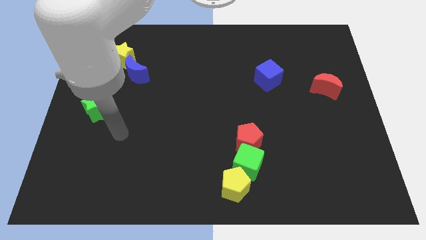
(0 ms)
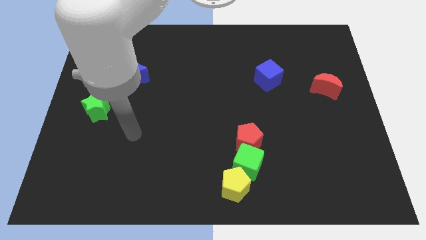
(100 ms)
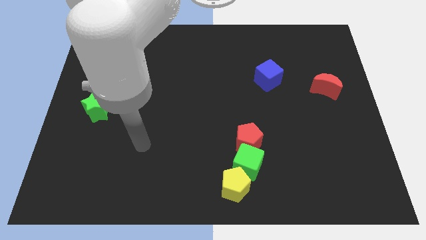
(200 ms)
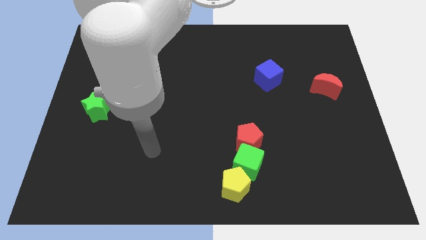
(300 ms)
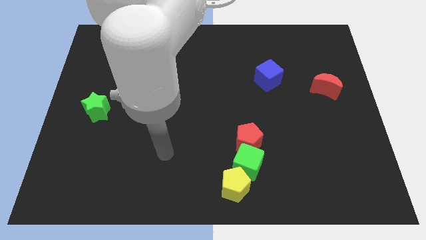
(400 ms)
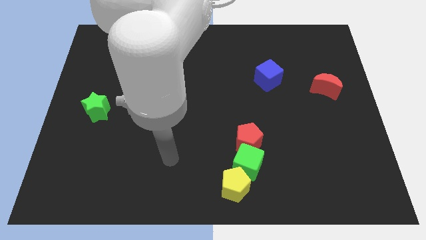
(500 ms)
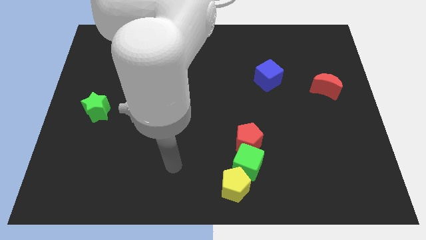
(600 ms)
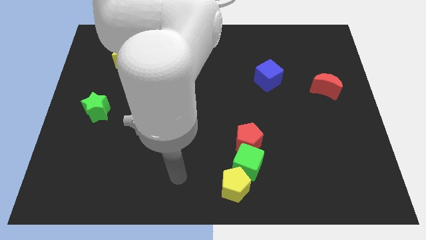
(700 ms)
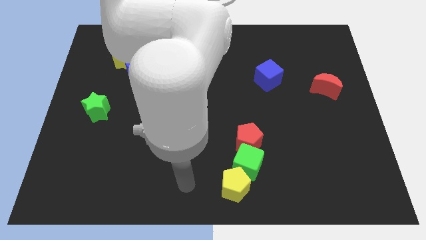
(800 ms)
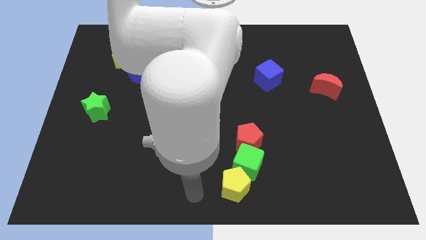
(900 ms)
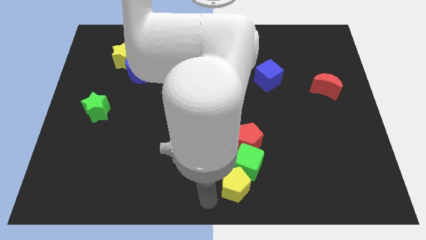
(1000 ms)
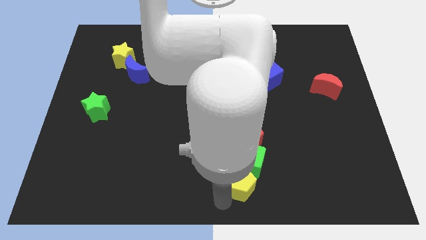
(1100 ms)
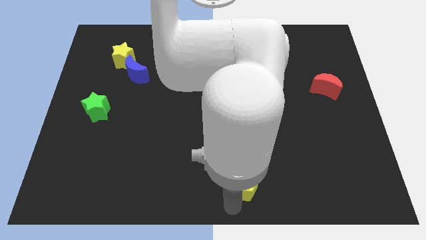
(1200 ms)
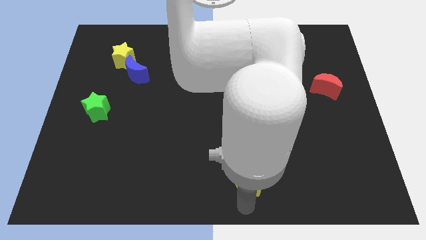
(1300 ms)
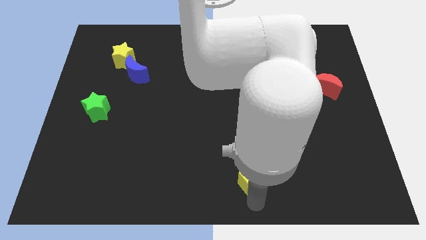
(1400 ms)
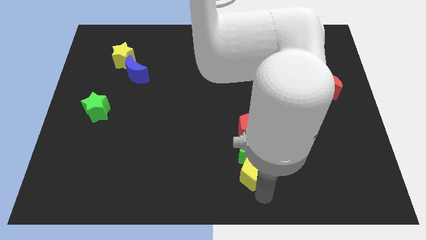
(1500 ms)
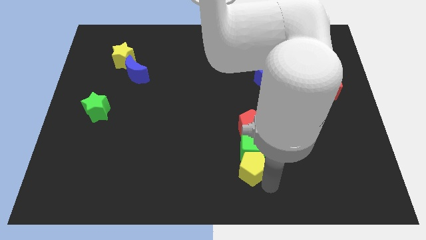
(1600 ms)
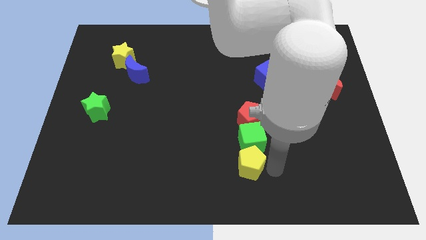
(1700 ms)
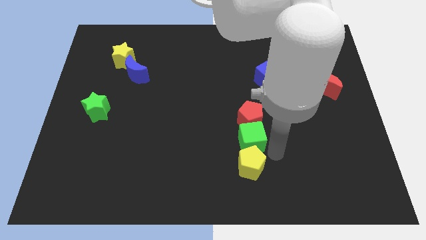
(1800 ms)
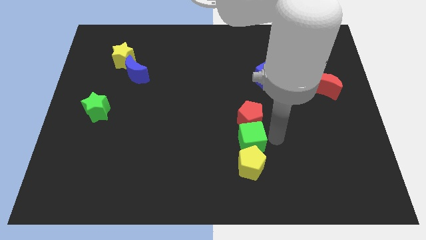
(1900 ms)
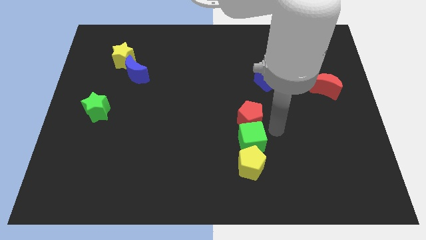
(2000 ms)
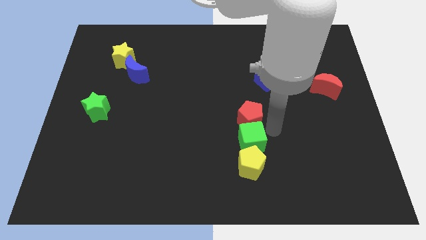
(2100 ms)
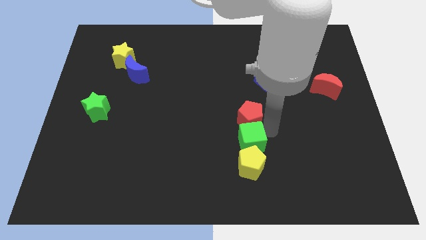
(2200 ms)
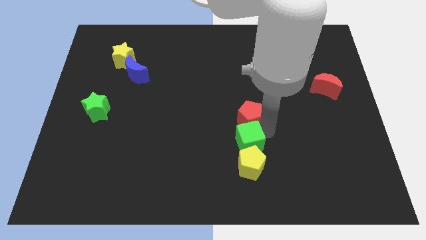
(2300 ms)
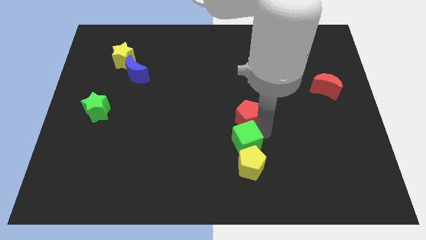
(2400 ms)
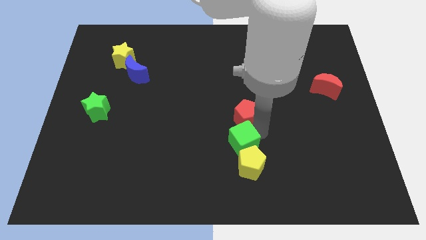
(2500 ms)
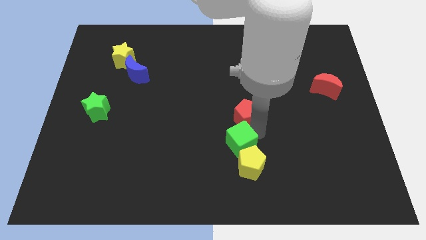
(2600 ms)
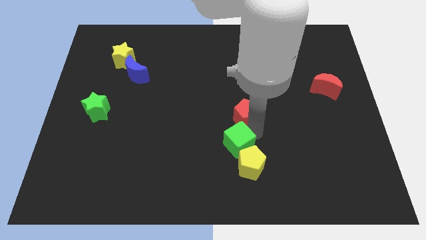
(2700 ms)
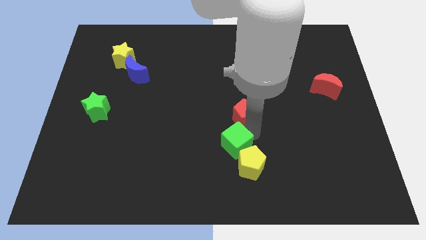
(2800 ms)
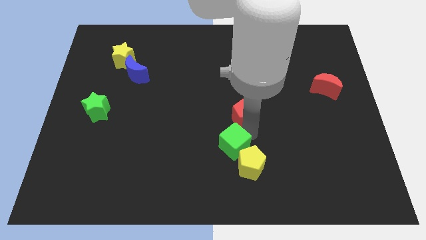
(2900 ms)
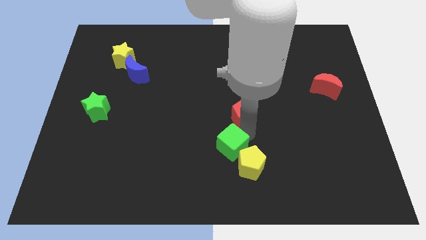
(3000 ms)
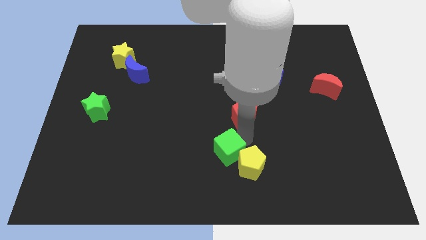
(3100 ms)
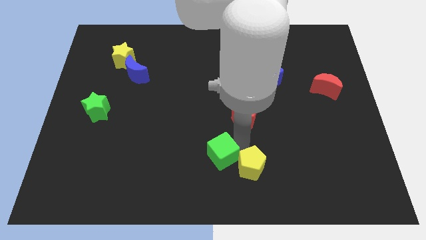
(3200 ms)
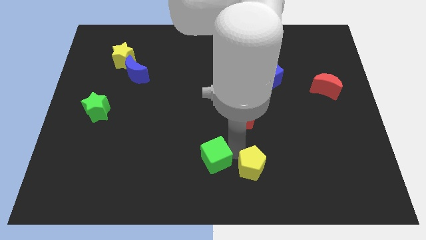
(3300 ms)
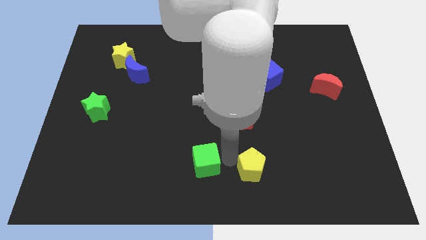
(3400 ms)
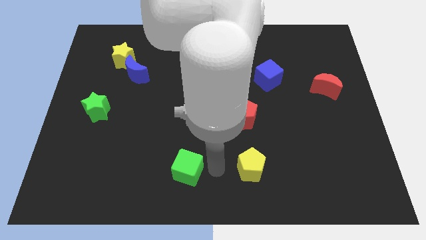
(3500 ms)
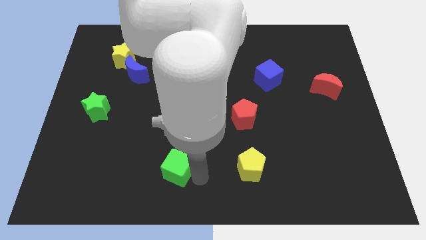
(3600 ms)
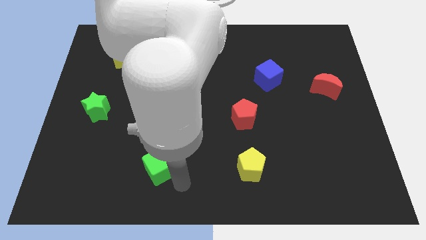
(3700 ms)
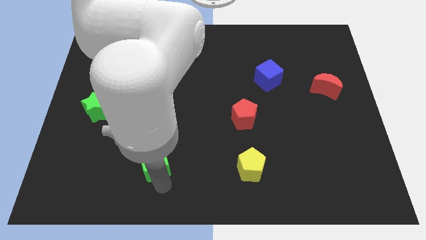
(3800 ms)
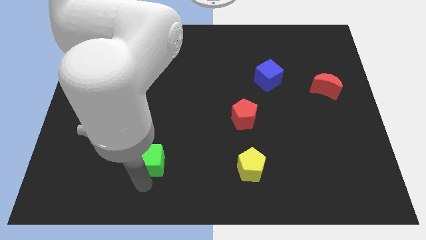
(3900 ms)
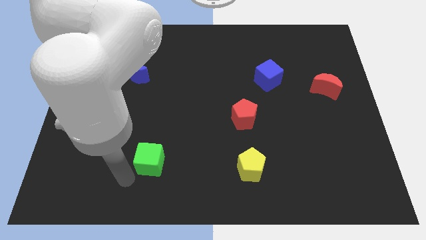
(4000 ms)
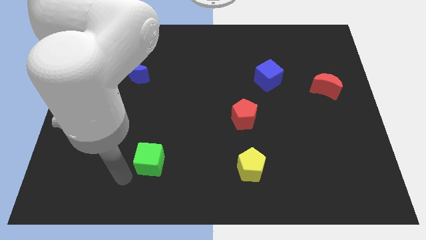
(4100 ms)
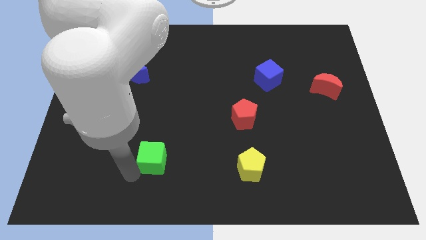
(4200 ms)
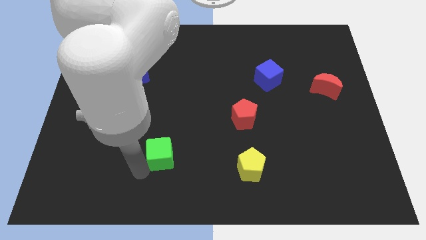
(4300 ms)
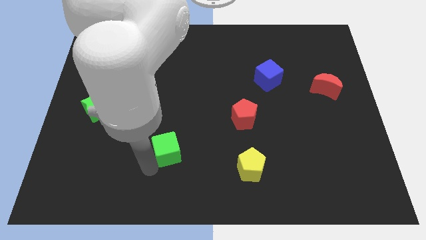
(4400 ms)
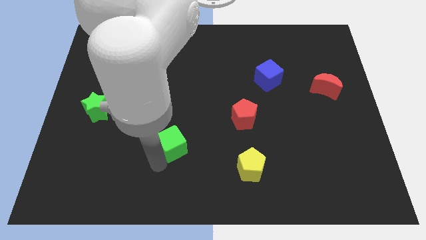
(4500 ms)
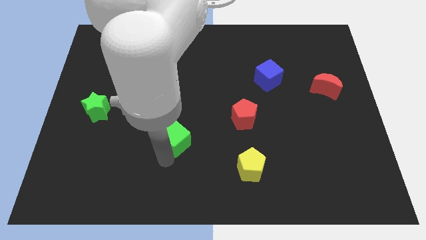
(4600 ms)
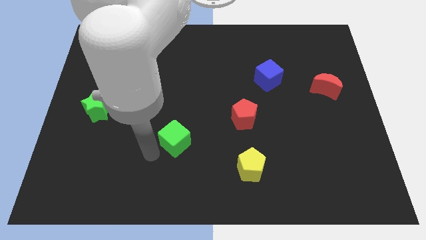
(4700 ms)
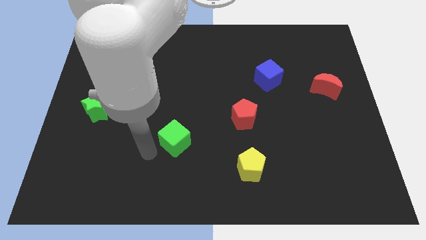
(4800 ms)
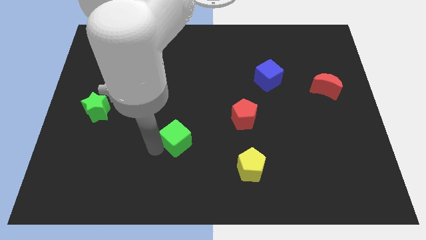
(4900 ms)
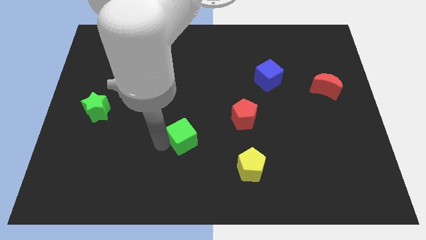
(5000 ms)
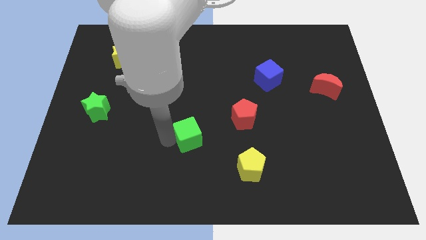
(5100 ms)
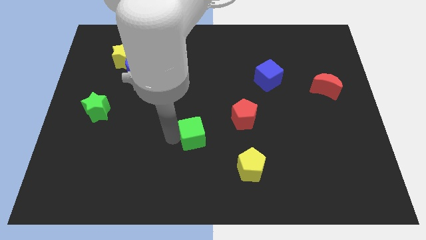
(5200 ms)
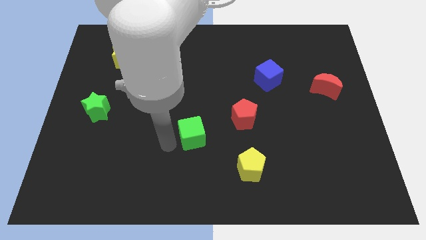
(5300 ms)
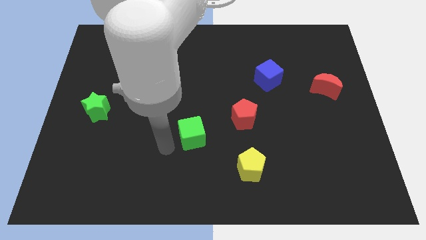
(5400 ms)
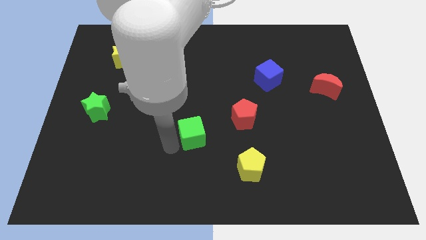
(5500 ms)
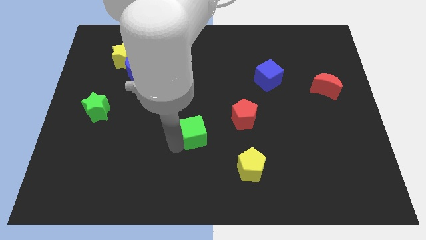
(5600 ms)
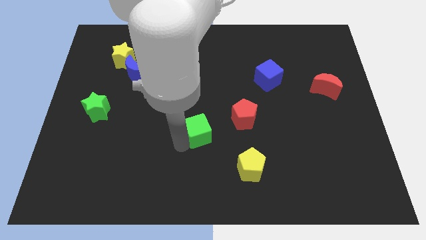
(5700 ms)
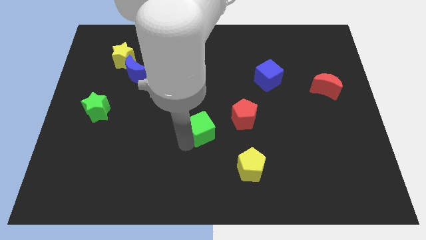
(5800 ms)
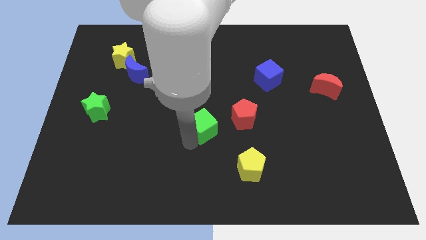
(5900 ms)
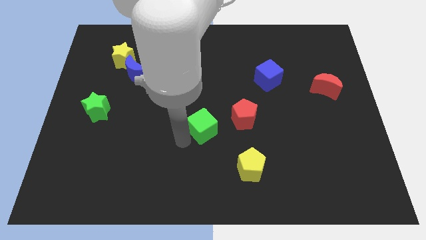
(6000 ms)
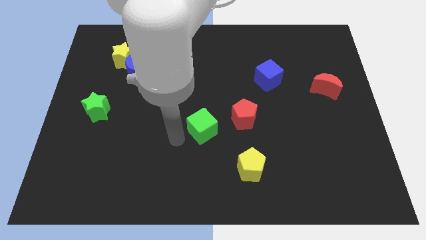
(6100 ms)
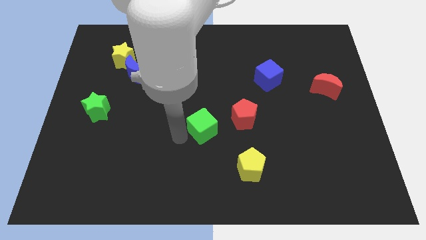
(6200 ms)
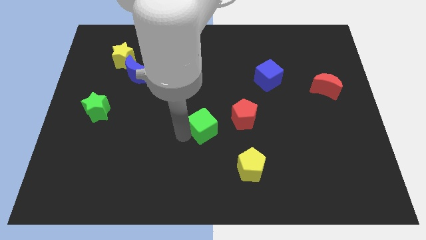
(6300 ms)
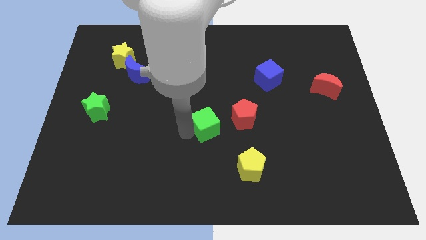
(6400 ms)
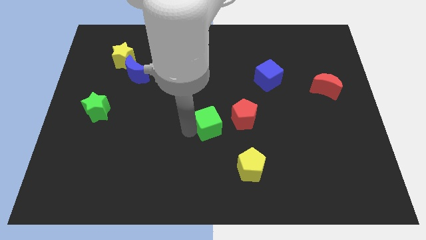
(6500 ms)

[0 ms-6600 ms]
push the green cube upwards a little

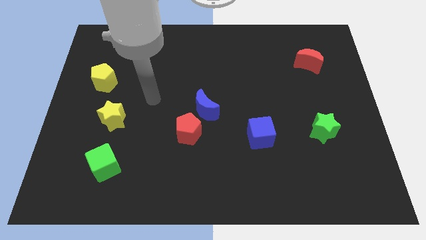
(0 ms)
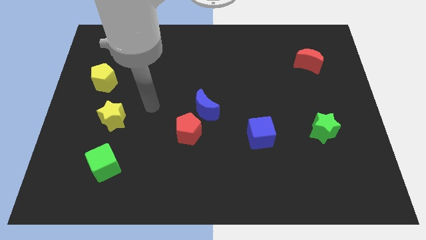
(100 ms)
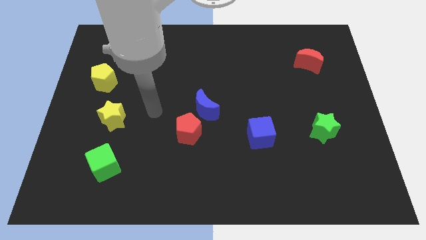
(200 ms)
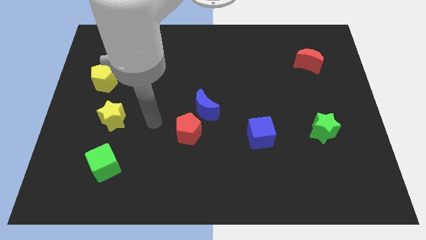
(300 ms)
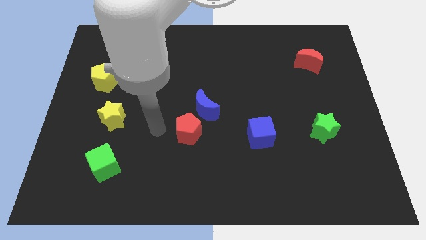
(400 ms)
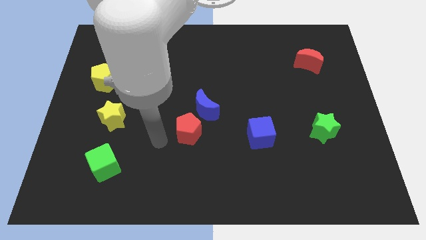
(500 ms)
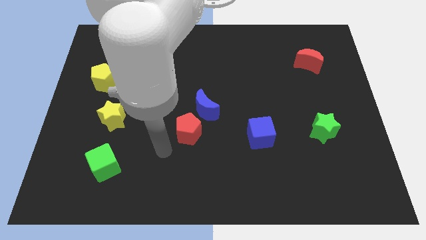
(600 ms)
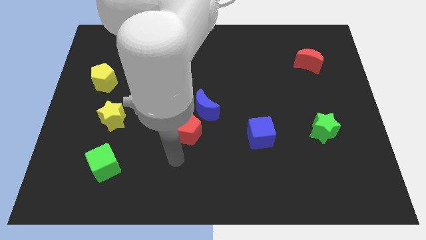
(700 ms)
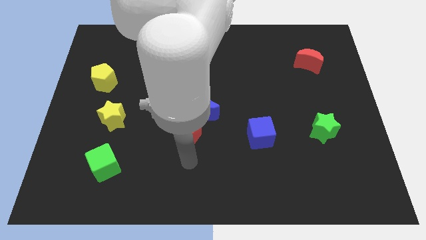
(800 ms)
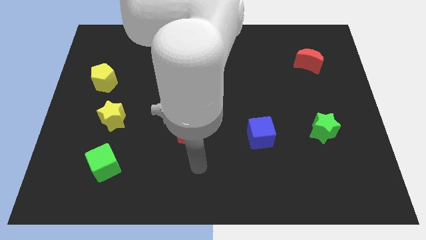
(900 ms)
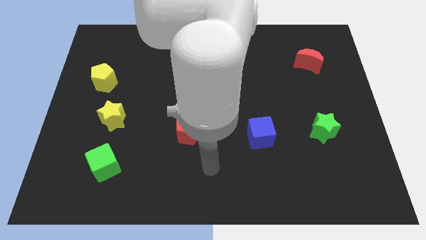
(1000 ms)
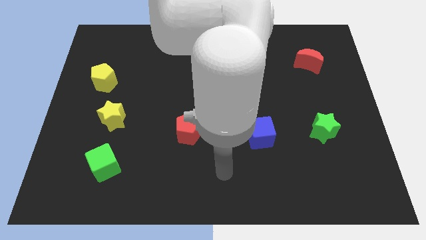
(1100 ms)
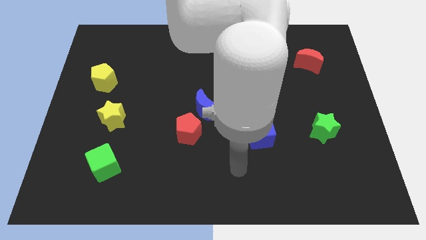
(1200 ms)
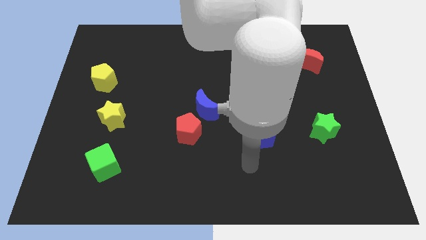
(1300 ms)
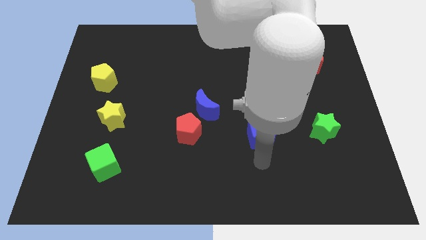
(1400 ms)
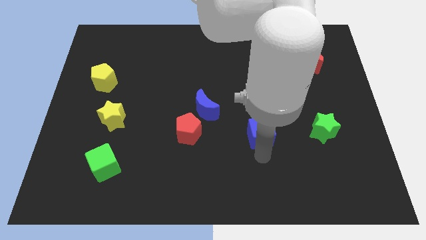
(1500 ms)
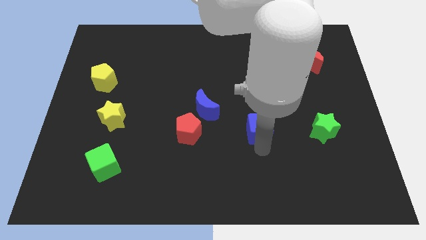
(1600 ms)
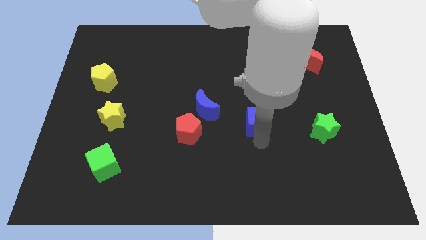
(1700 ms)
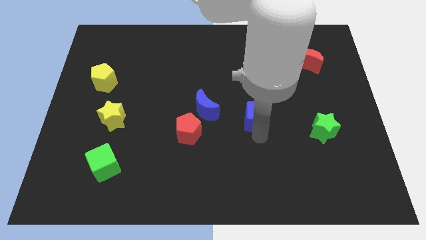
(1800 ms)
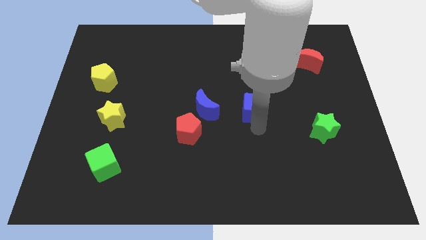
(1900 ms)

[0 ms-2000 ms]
slide the blue cube a bit up
